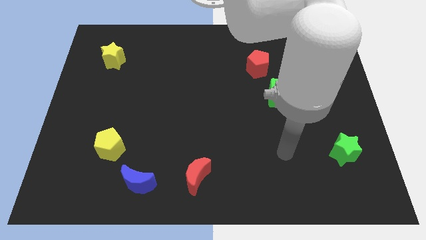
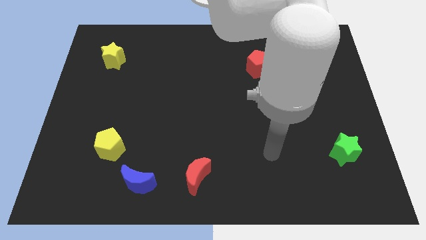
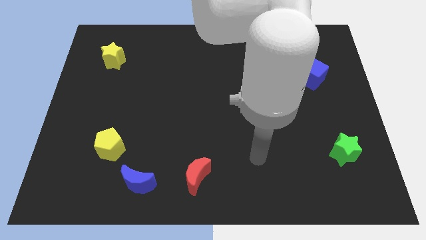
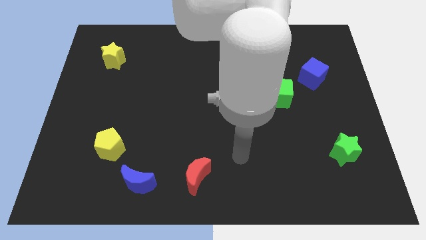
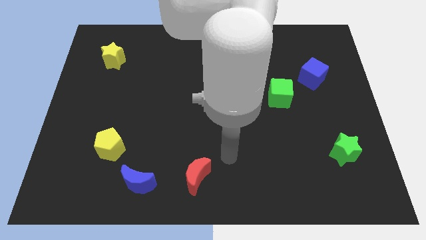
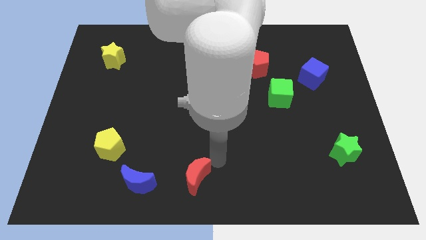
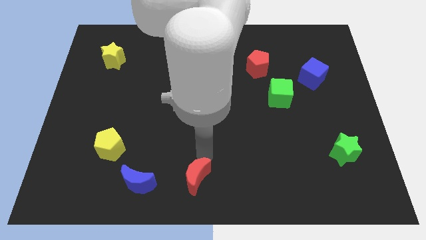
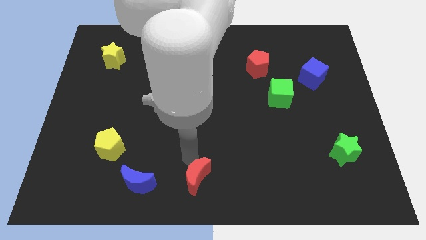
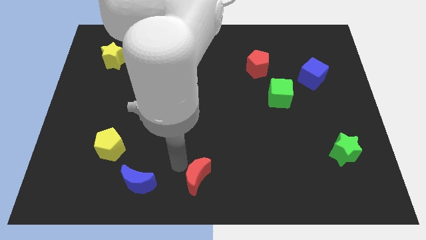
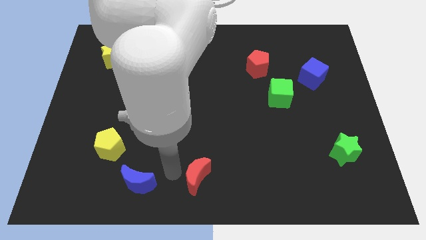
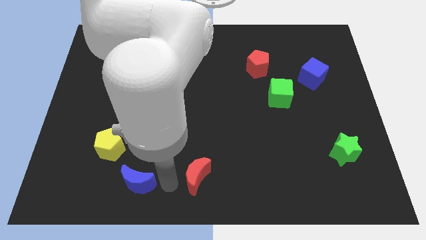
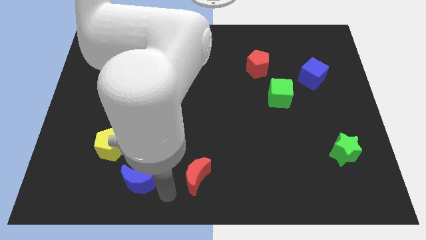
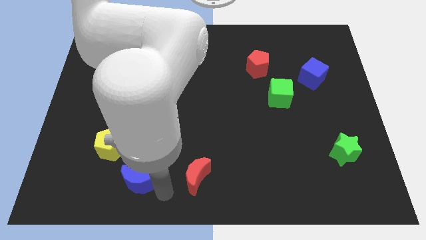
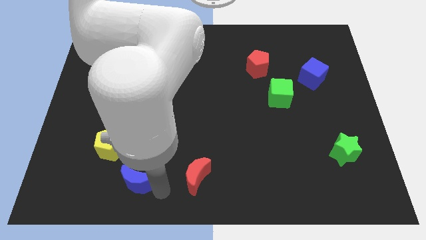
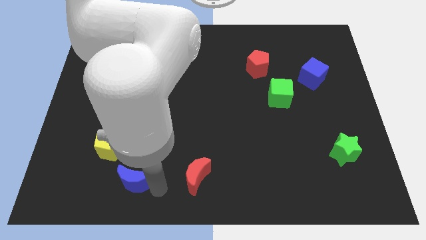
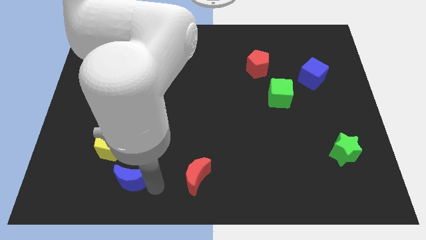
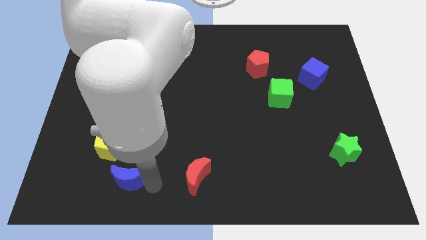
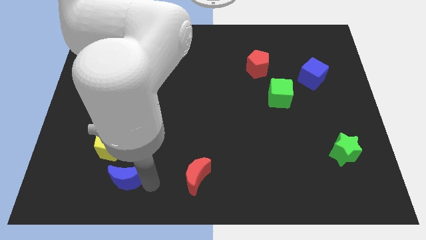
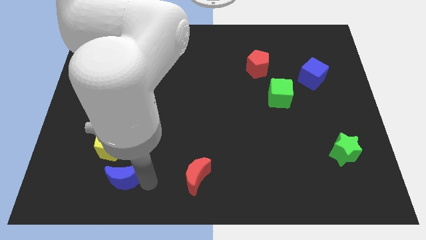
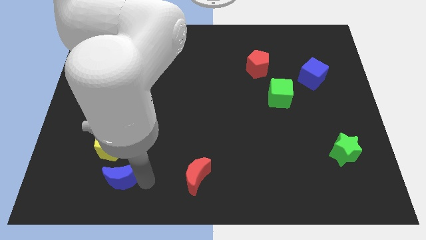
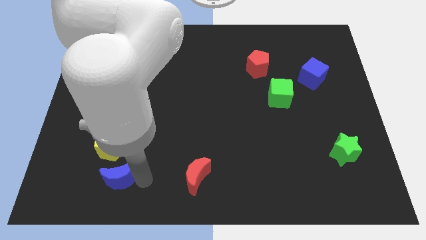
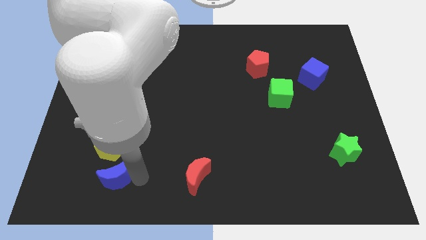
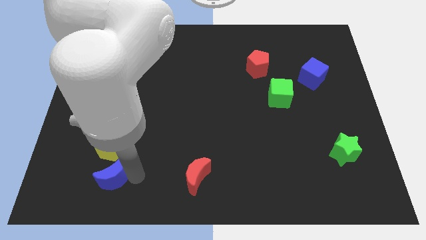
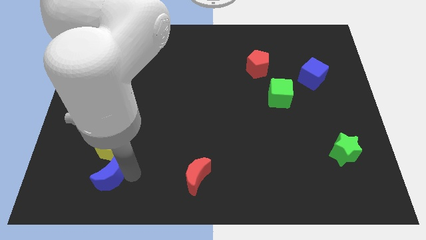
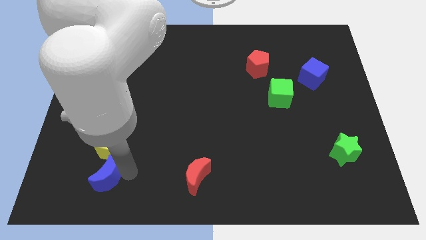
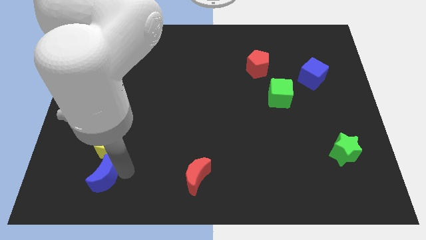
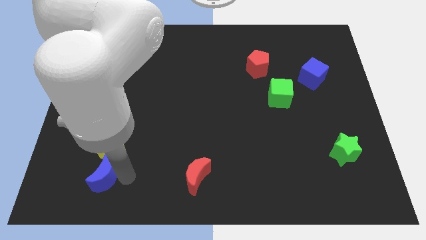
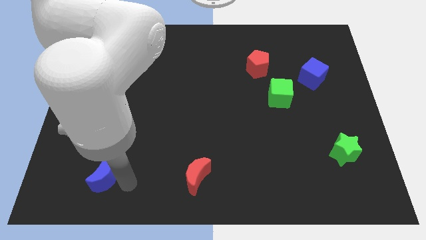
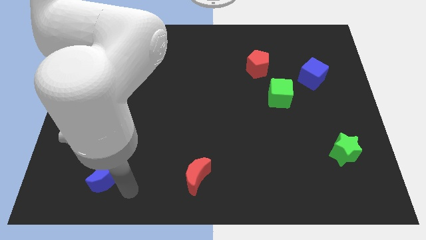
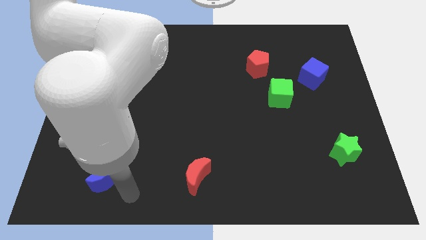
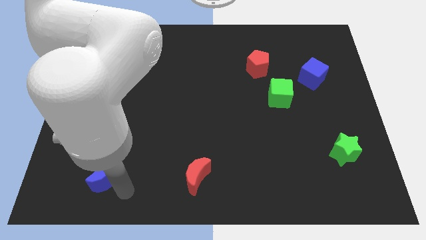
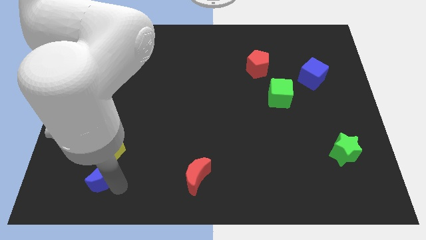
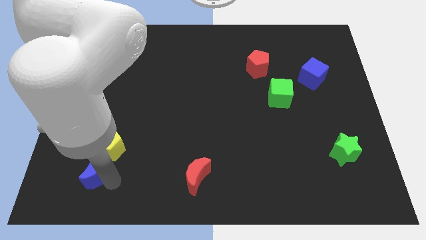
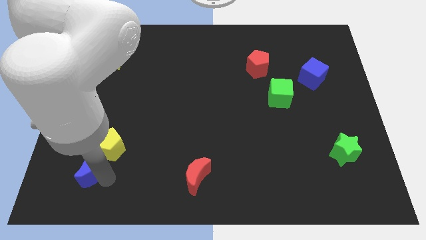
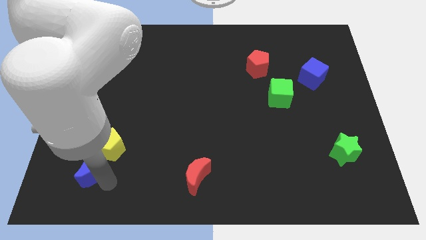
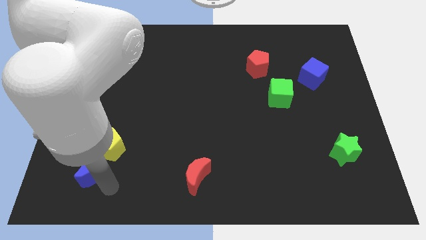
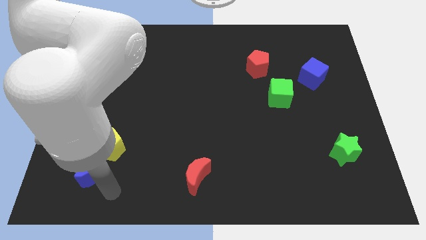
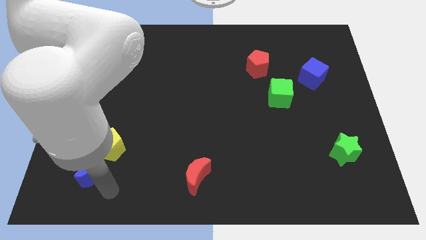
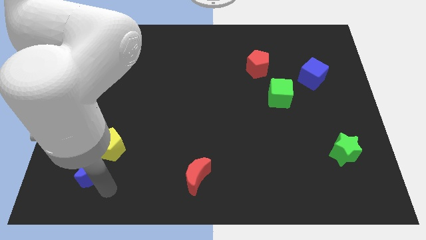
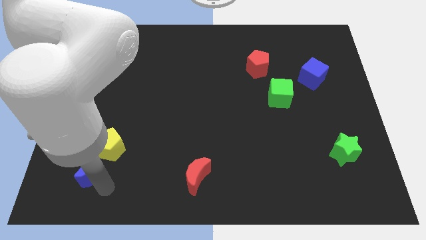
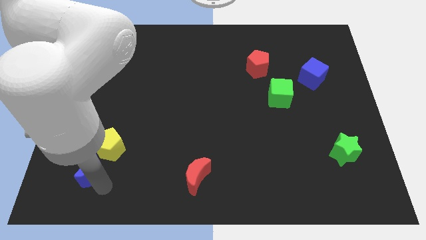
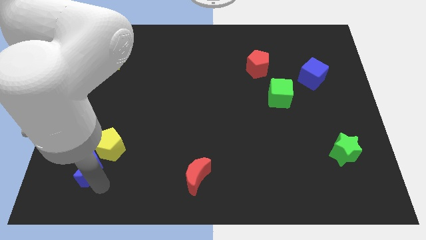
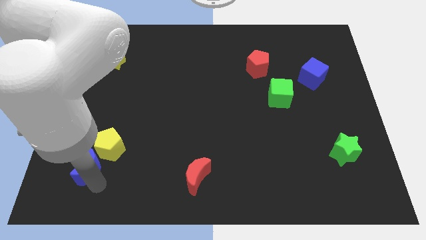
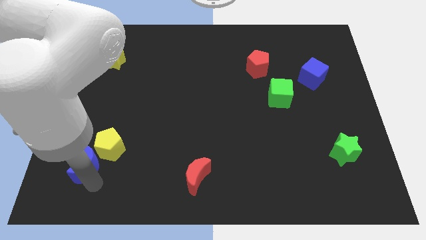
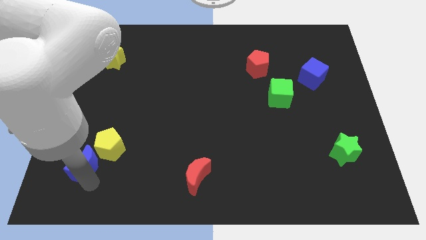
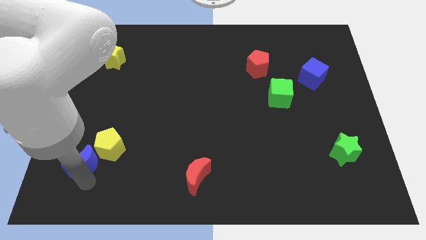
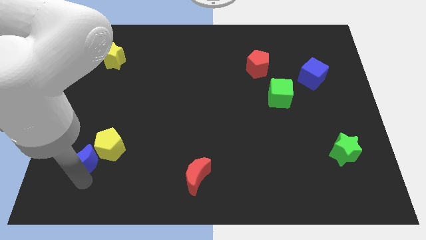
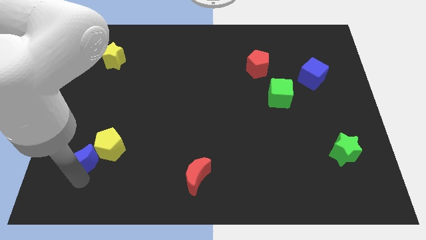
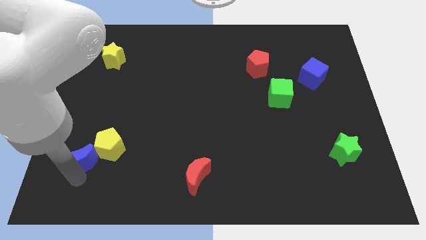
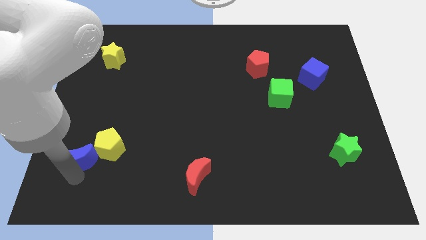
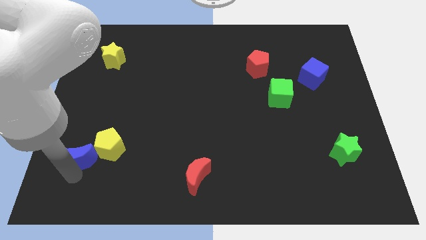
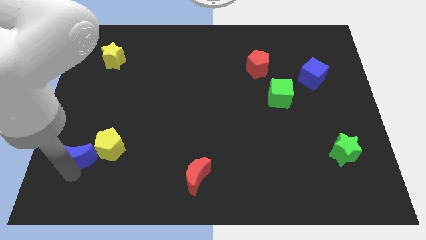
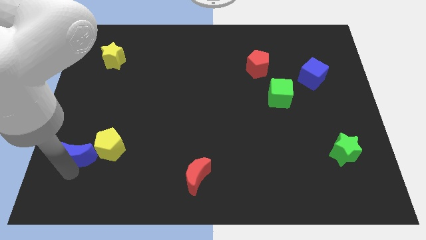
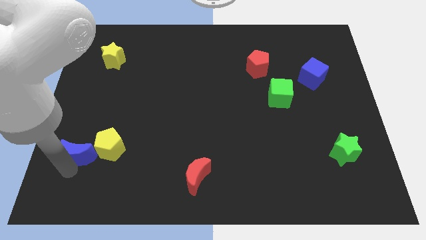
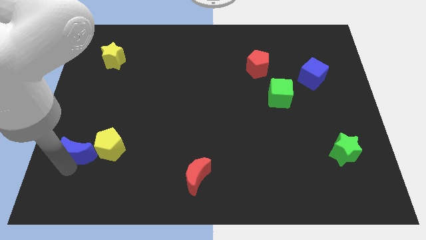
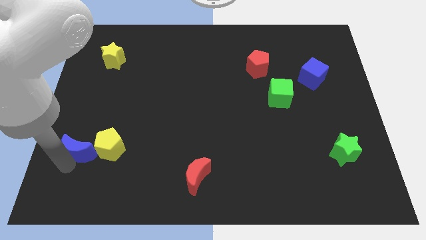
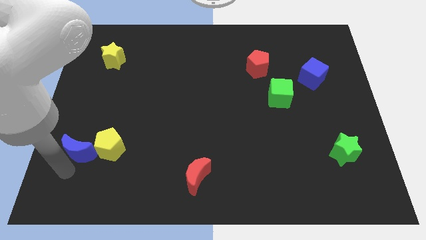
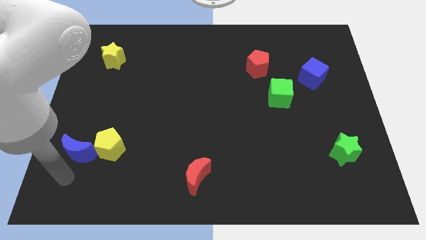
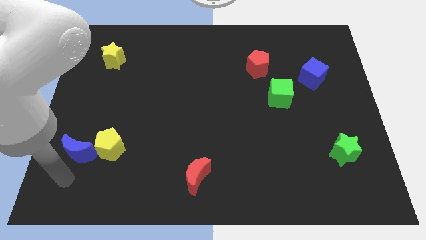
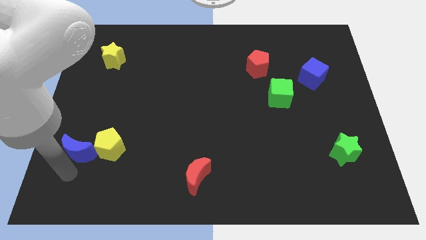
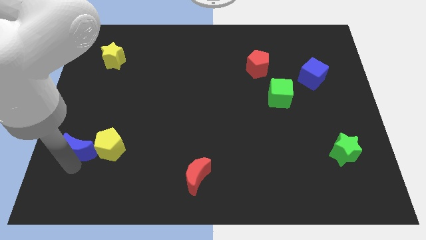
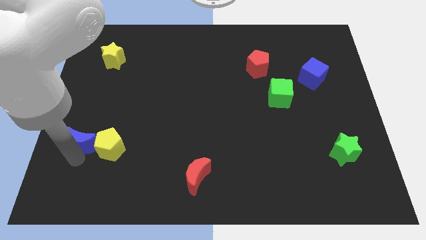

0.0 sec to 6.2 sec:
push the blue moon to the top left side of the yellow pentagon

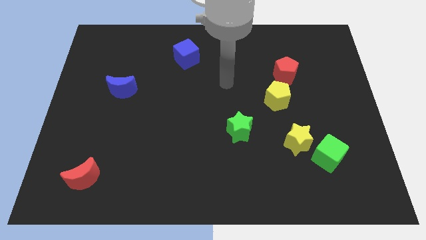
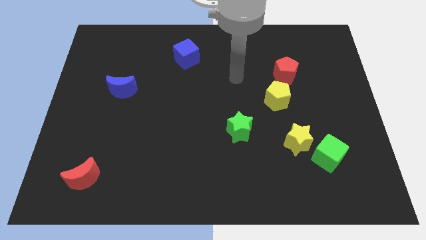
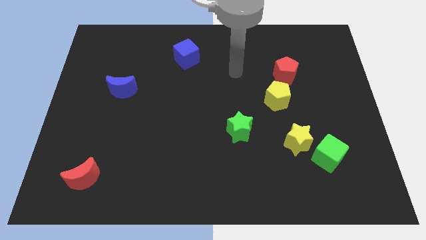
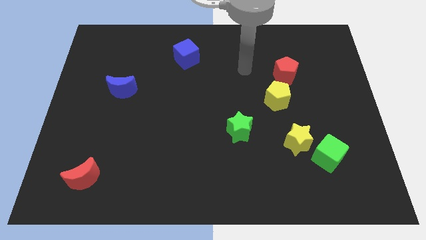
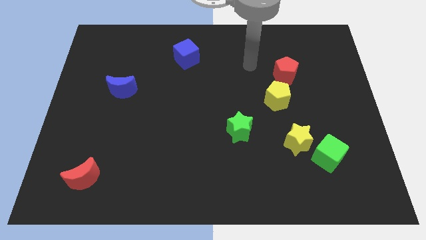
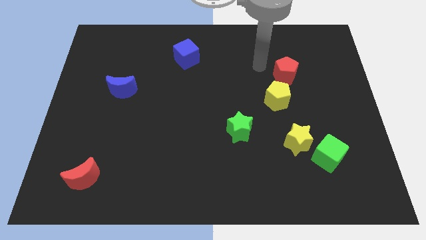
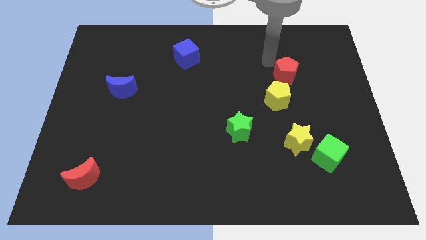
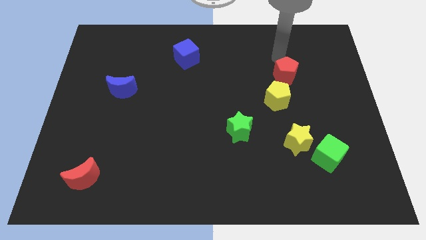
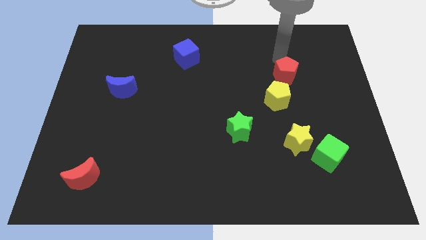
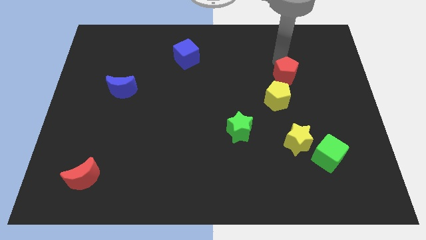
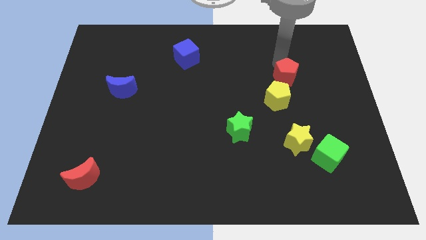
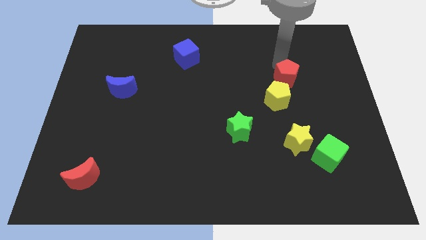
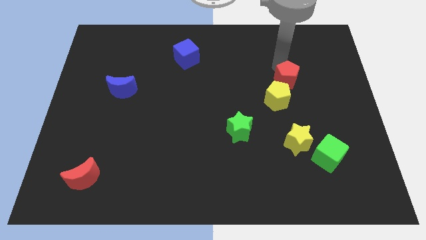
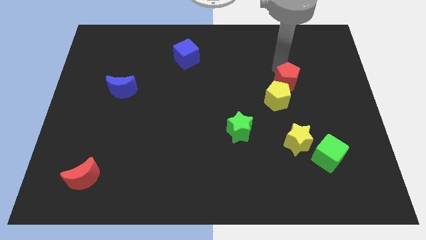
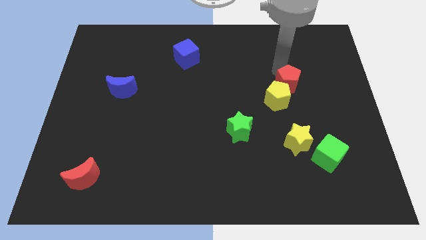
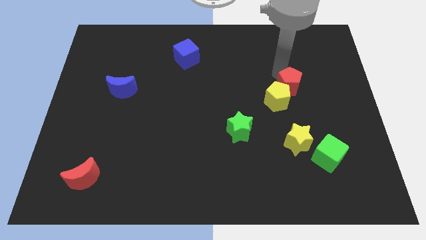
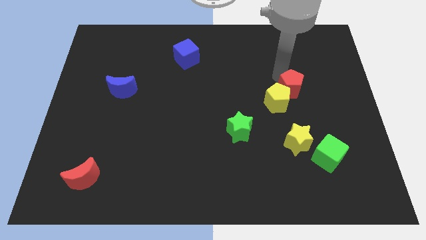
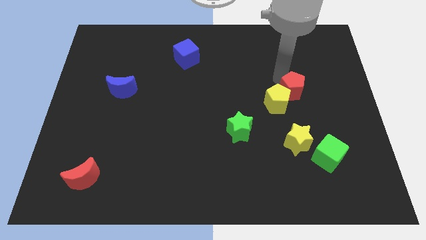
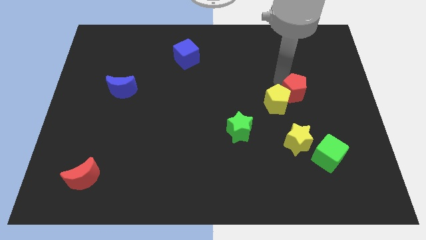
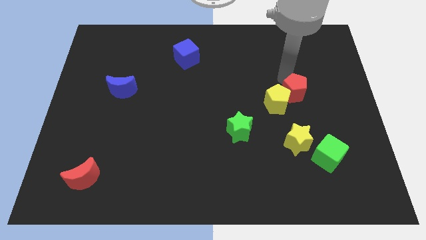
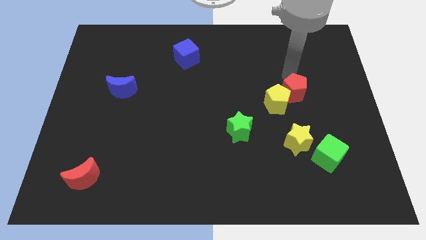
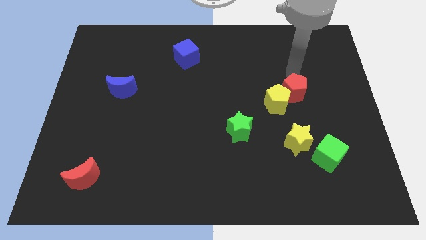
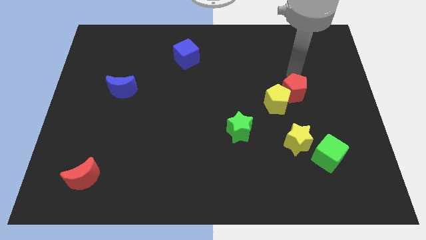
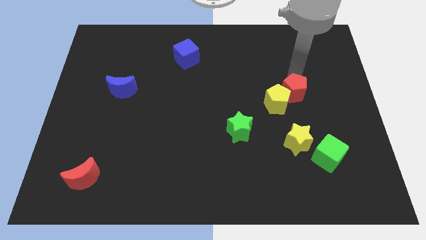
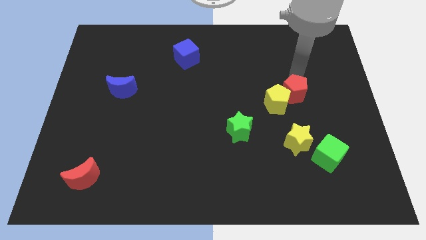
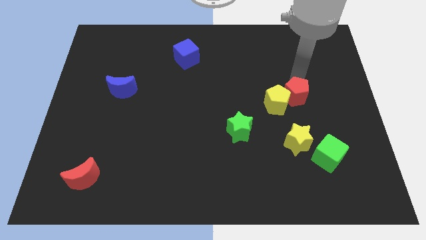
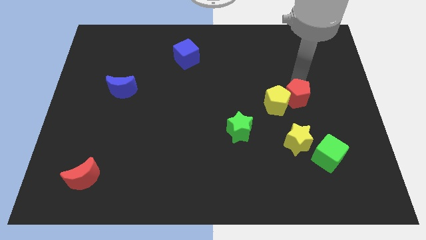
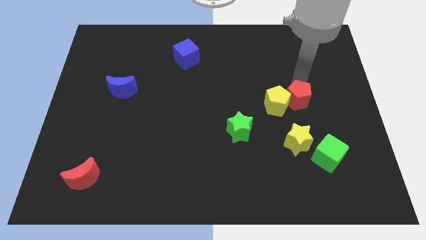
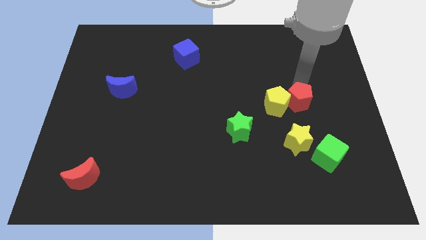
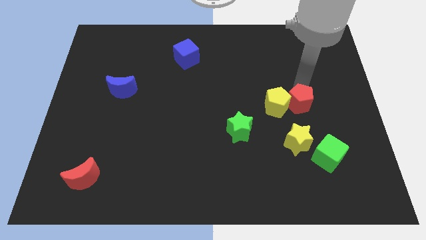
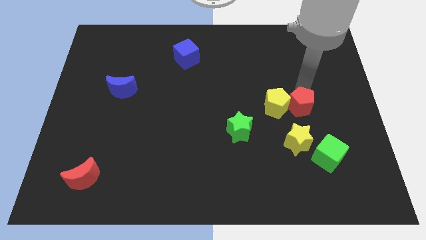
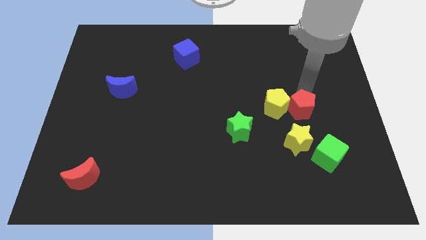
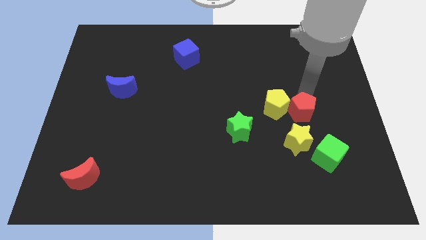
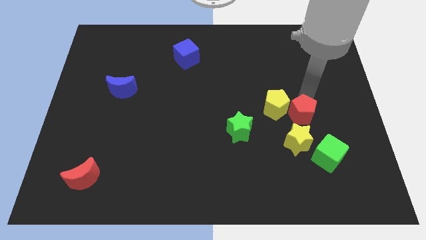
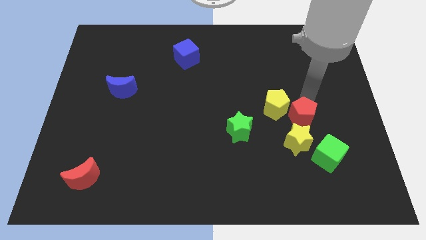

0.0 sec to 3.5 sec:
slide the red pentagon diagonally up and to the left of the green cube
